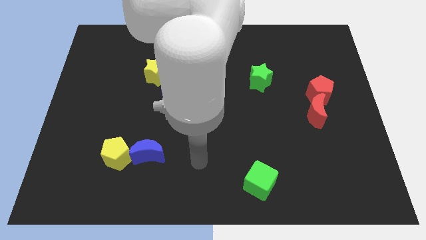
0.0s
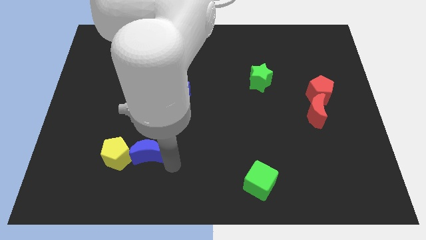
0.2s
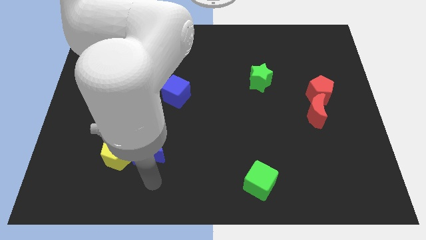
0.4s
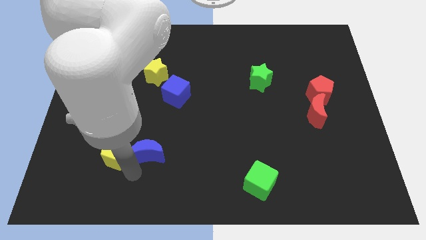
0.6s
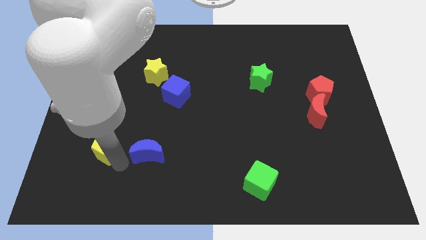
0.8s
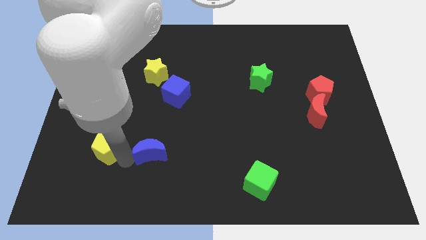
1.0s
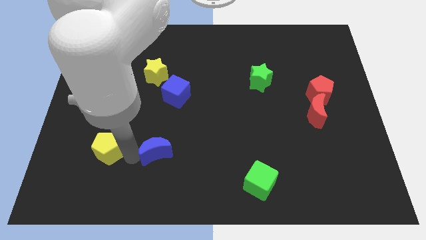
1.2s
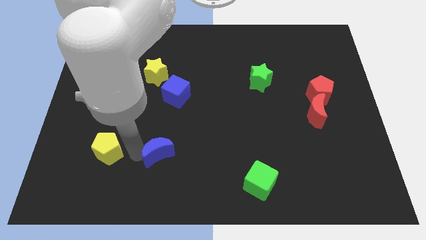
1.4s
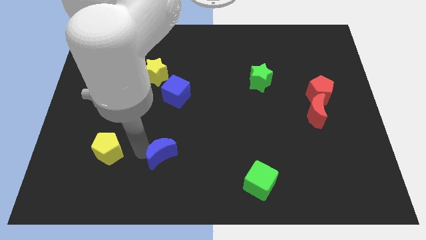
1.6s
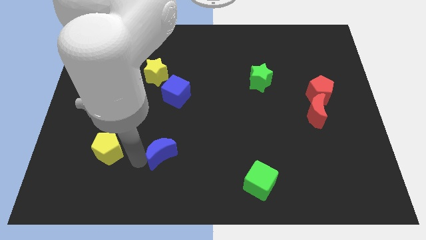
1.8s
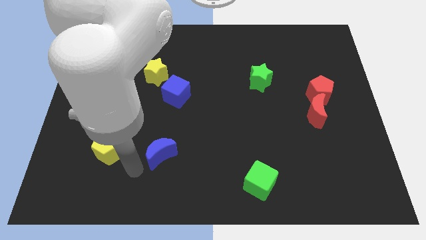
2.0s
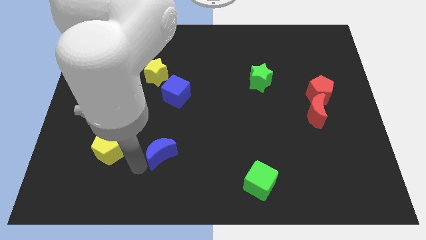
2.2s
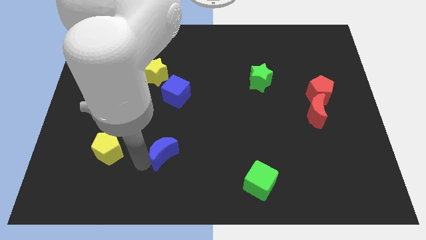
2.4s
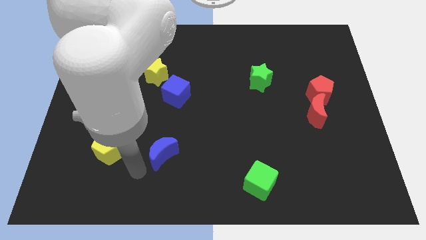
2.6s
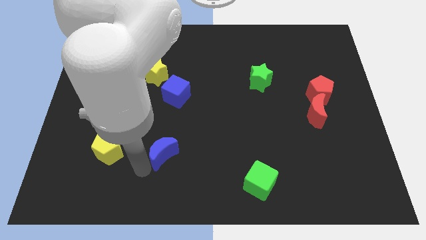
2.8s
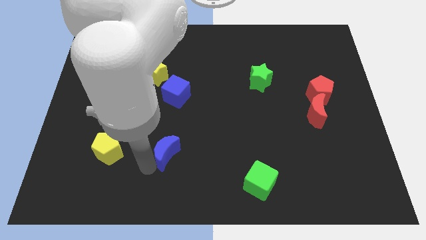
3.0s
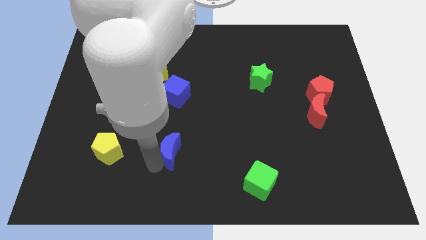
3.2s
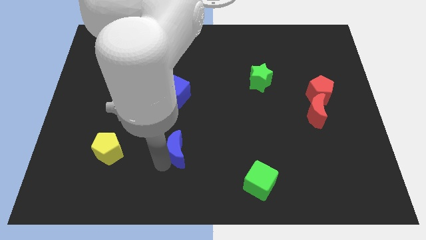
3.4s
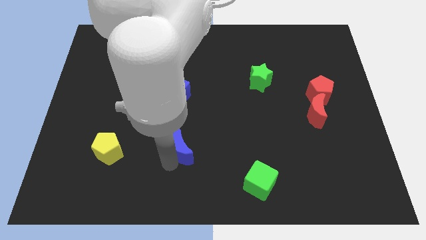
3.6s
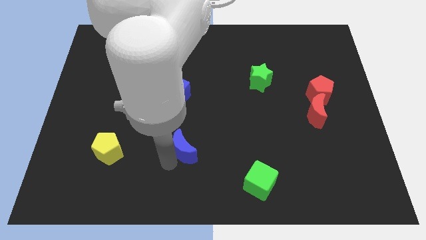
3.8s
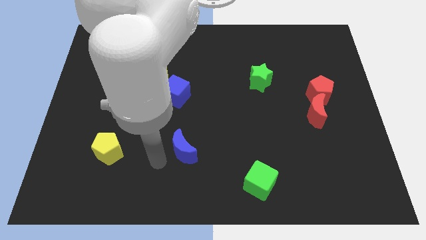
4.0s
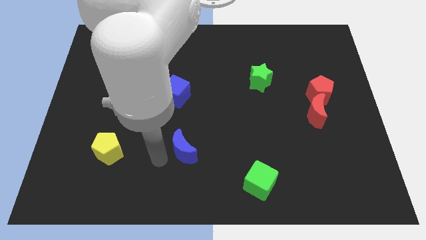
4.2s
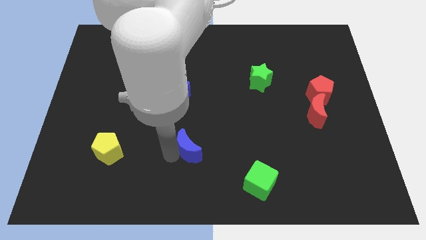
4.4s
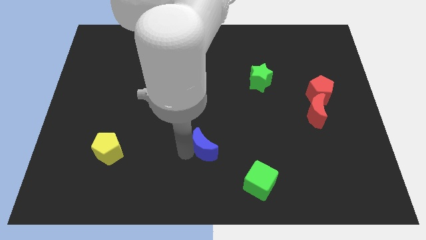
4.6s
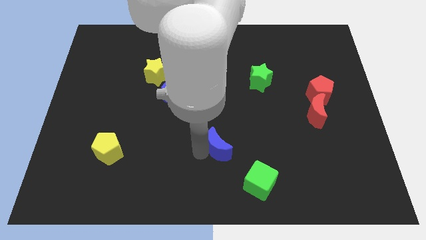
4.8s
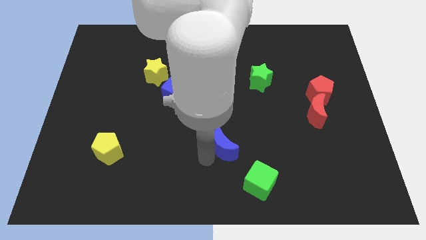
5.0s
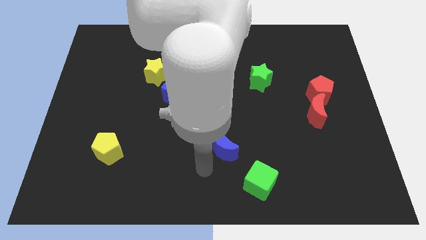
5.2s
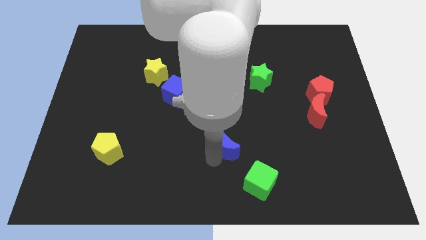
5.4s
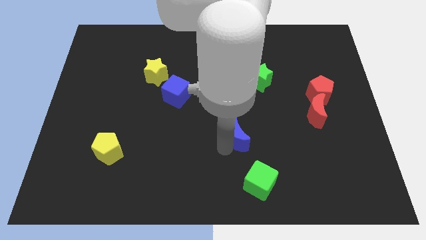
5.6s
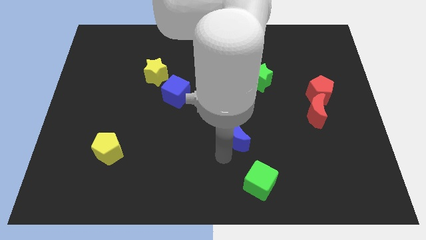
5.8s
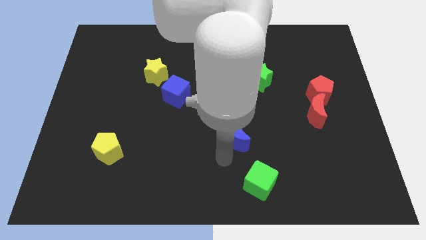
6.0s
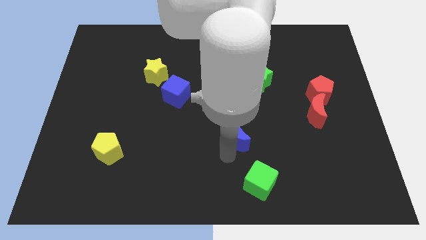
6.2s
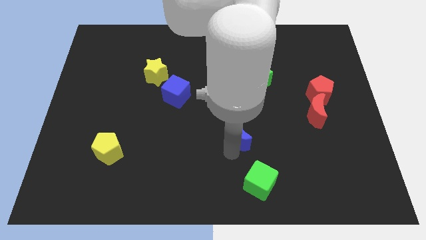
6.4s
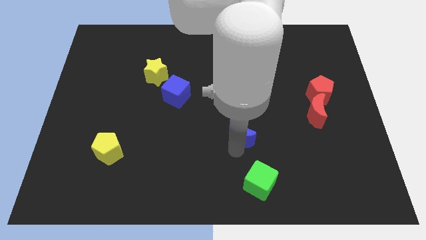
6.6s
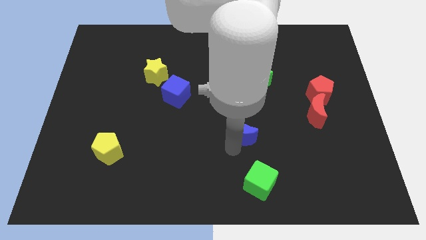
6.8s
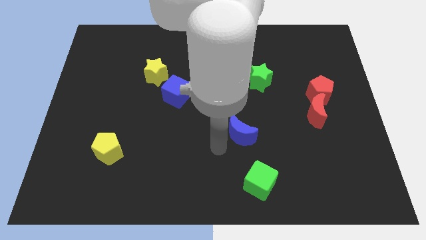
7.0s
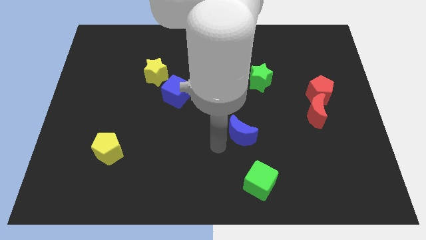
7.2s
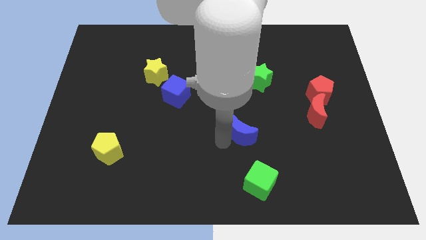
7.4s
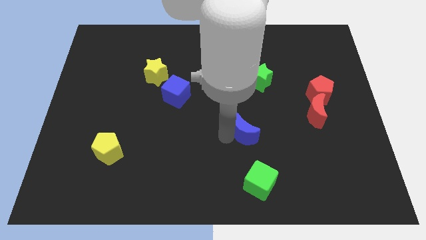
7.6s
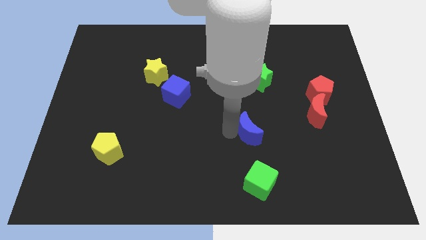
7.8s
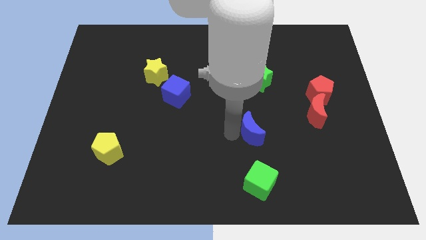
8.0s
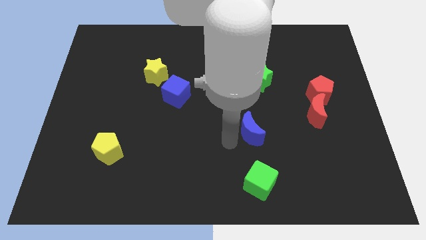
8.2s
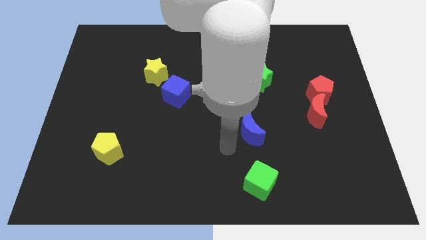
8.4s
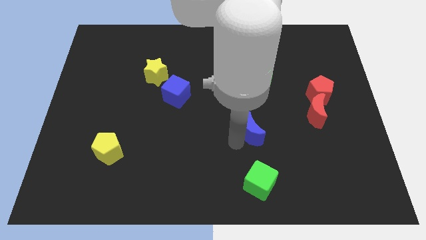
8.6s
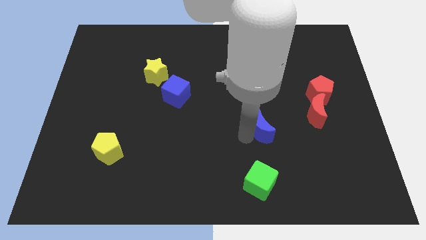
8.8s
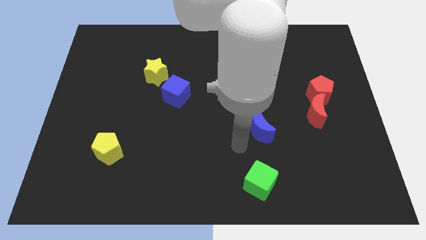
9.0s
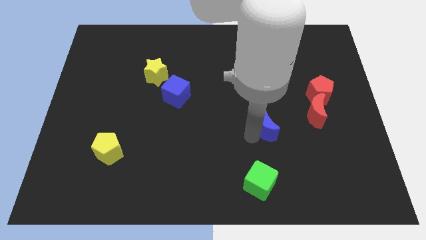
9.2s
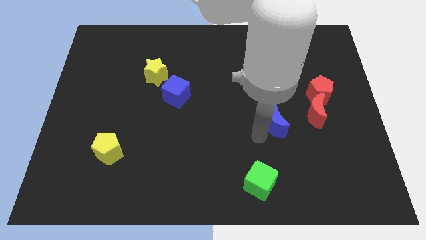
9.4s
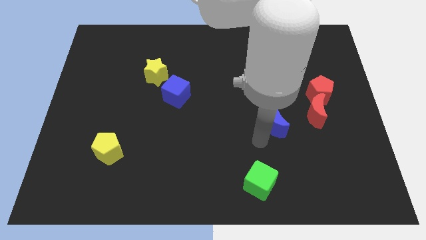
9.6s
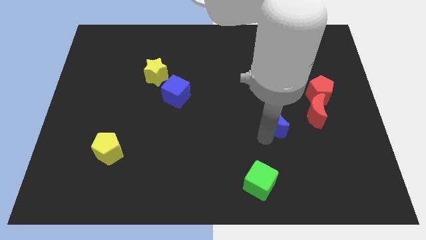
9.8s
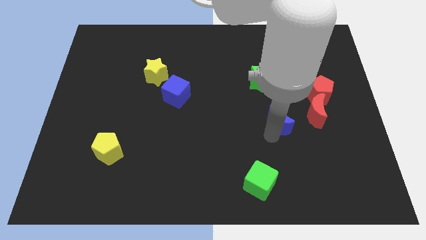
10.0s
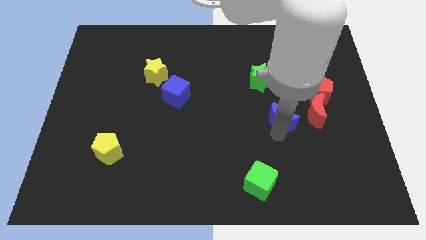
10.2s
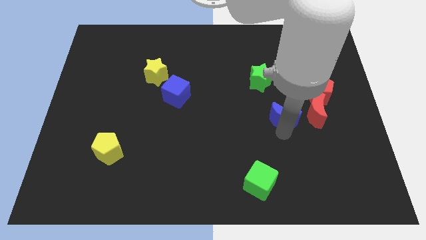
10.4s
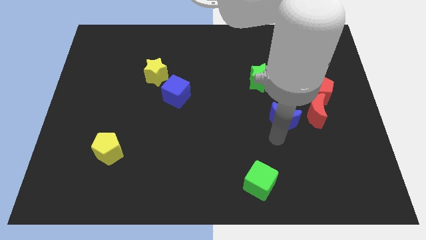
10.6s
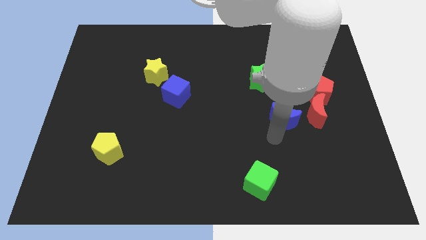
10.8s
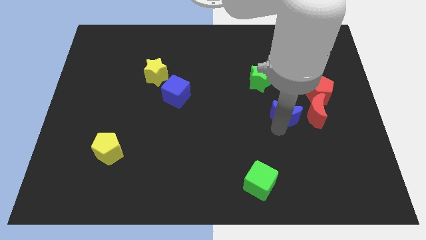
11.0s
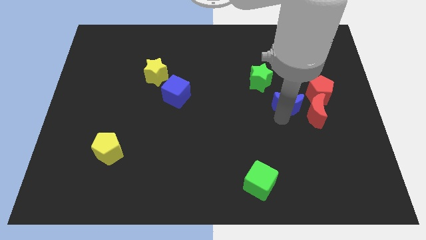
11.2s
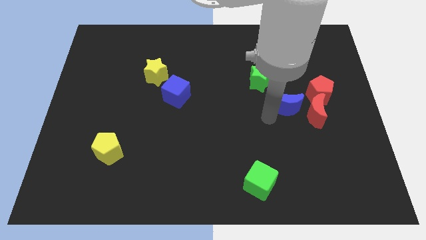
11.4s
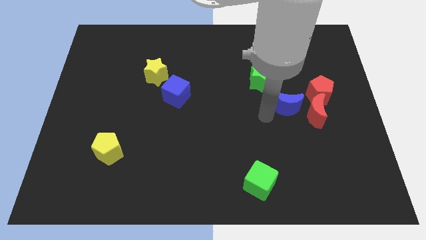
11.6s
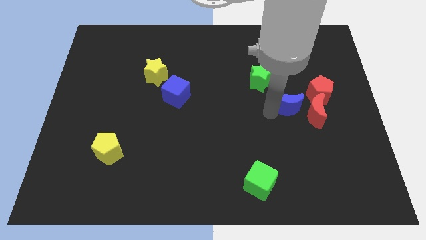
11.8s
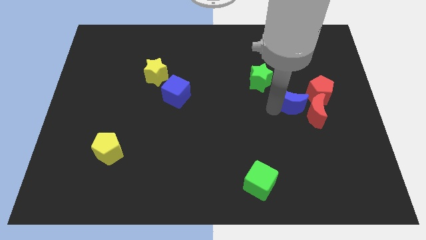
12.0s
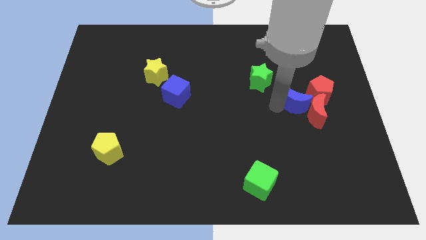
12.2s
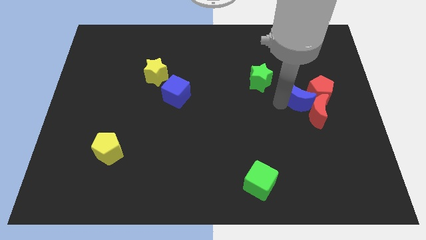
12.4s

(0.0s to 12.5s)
put the blue moon towards the red pentagon

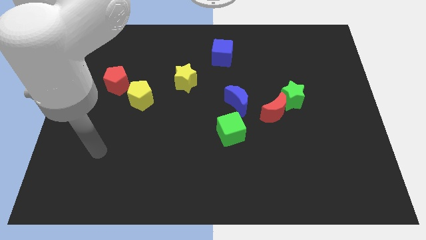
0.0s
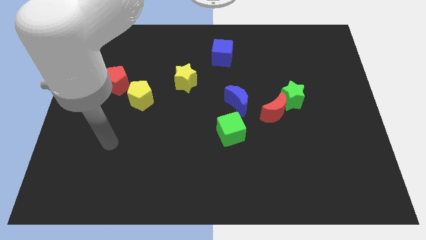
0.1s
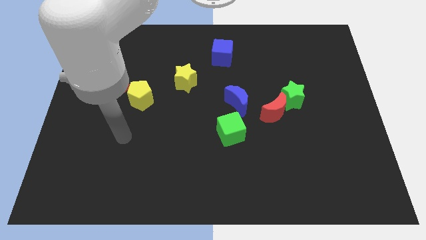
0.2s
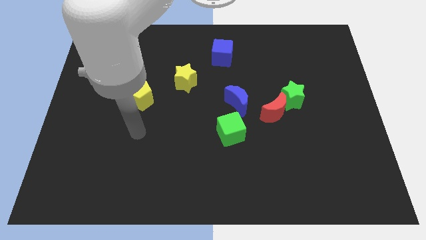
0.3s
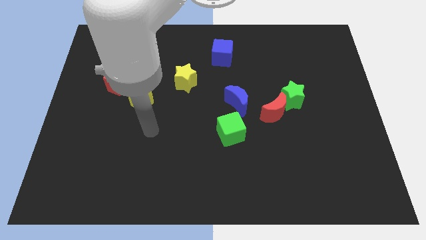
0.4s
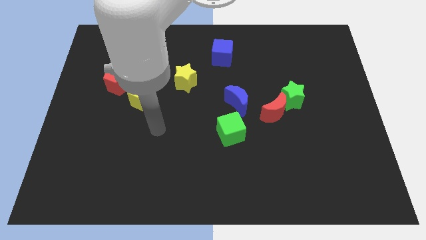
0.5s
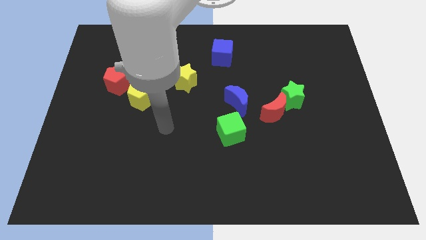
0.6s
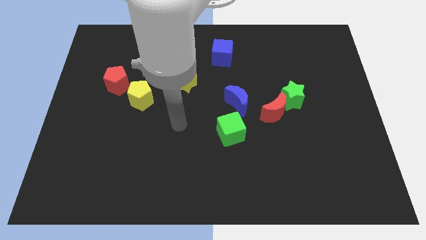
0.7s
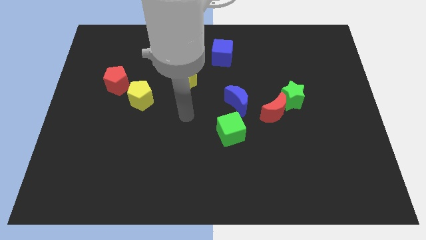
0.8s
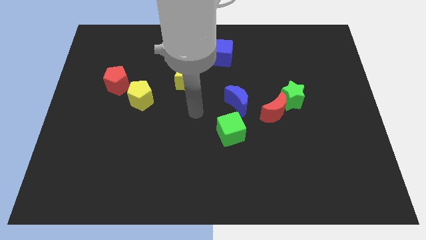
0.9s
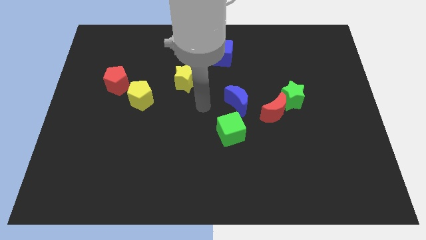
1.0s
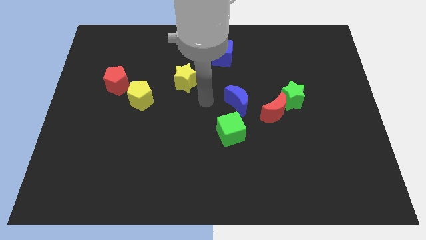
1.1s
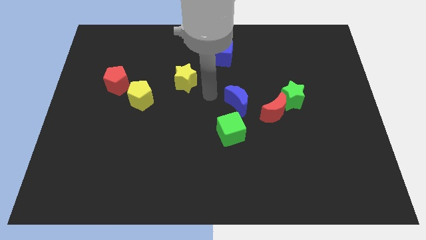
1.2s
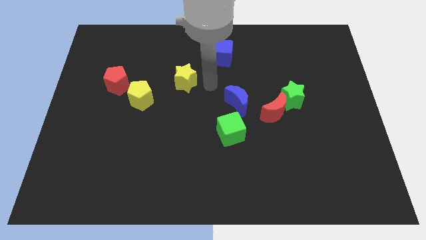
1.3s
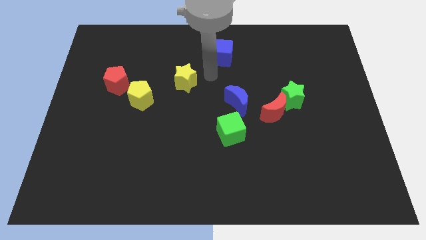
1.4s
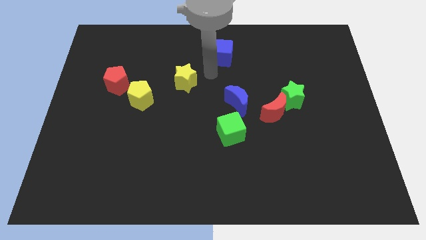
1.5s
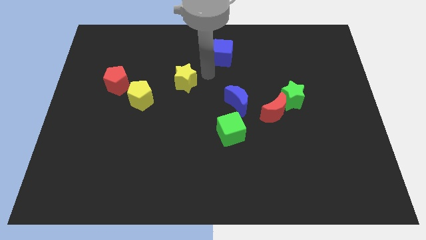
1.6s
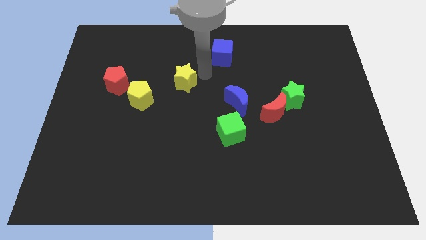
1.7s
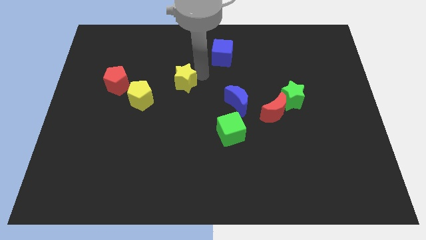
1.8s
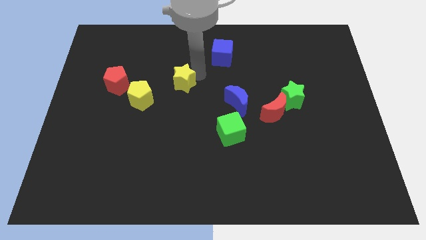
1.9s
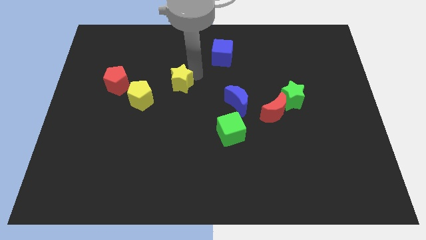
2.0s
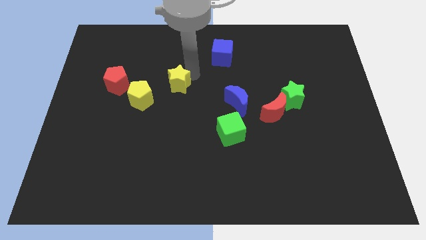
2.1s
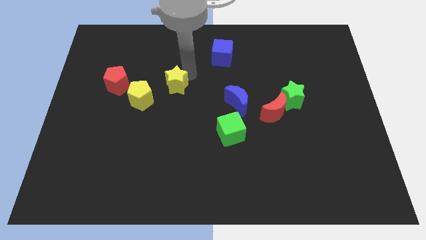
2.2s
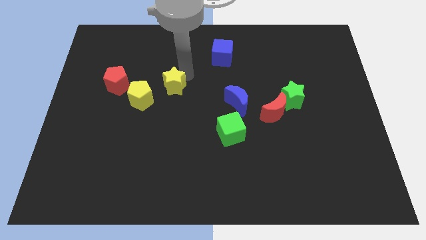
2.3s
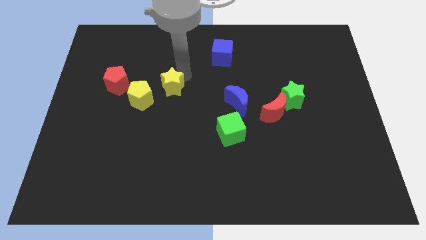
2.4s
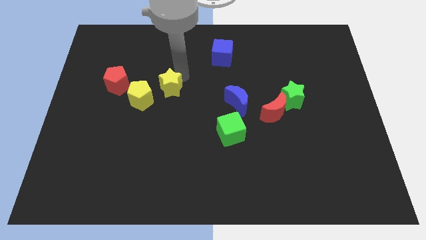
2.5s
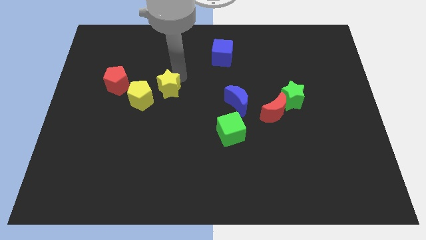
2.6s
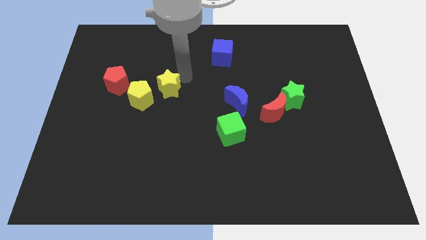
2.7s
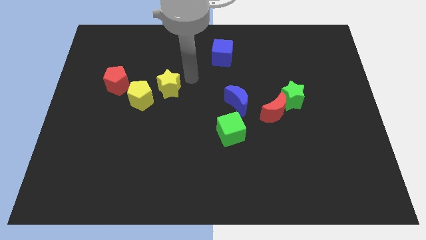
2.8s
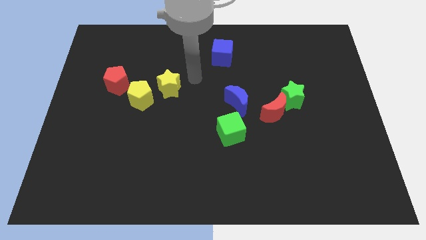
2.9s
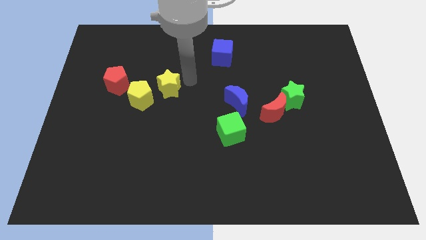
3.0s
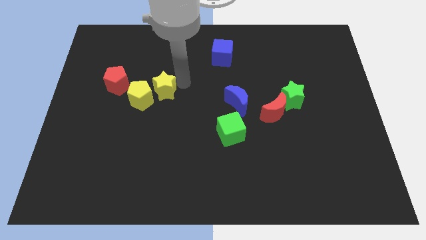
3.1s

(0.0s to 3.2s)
move the yellow star towards the yellow pentagon
